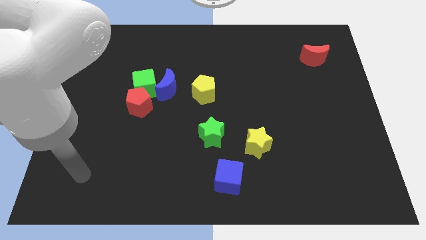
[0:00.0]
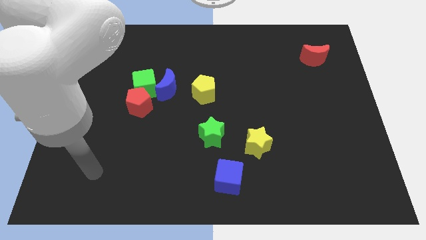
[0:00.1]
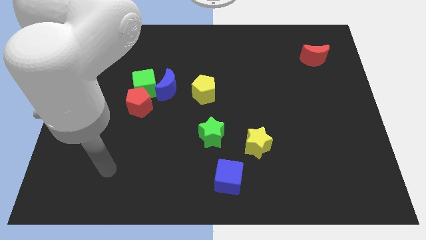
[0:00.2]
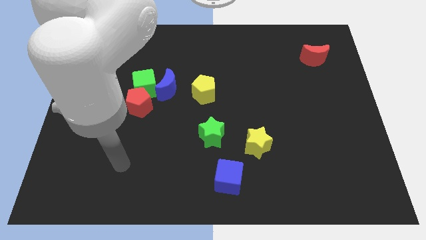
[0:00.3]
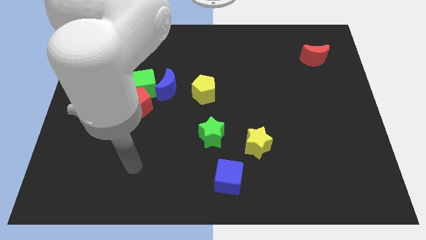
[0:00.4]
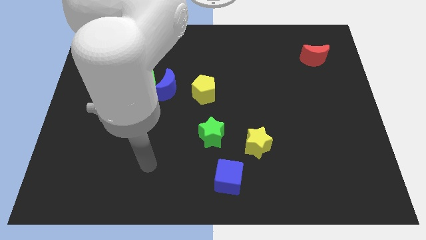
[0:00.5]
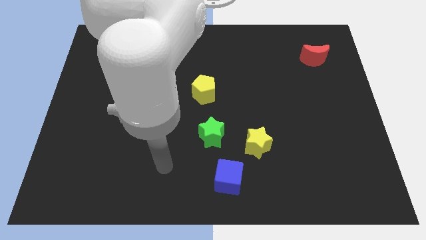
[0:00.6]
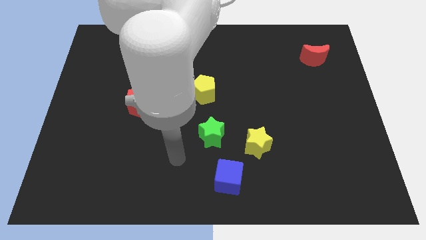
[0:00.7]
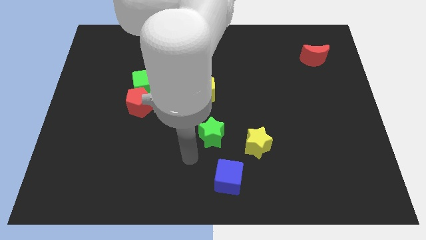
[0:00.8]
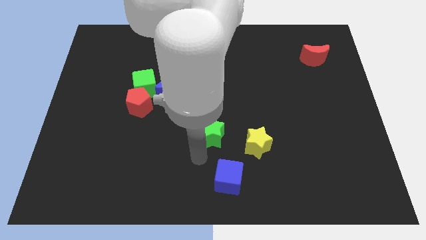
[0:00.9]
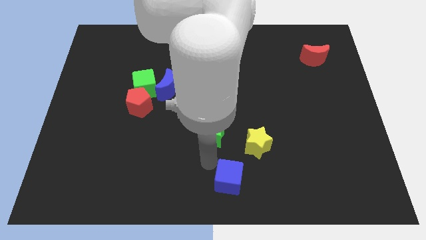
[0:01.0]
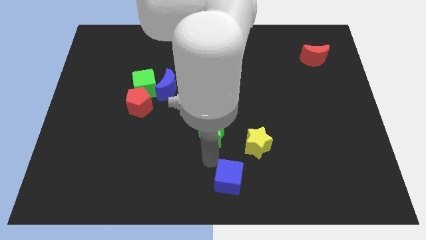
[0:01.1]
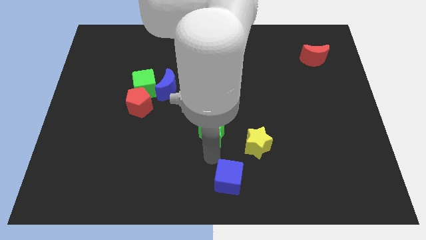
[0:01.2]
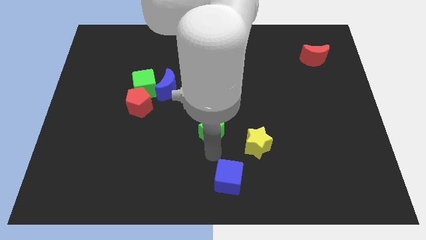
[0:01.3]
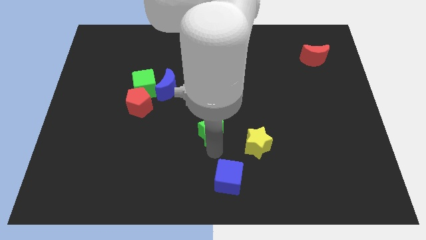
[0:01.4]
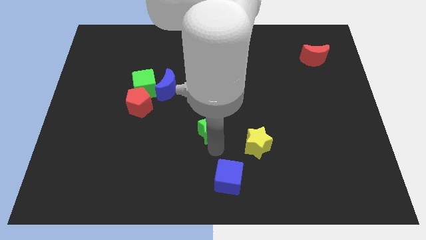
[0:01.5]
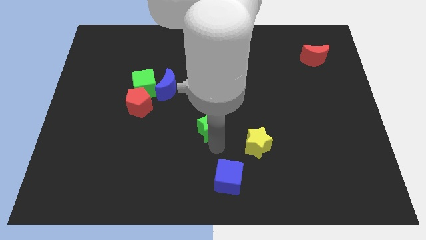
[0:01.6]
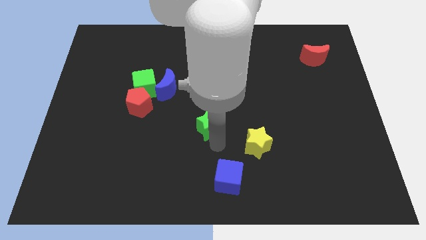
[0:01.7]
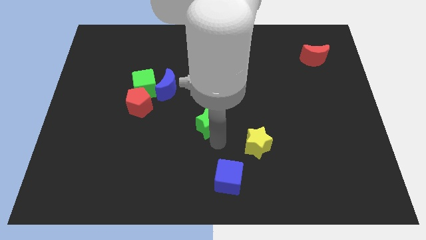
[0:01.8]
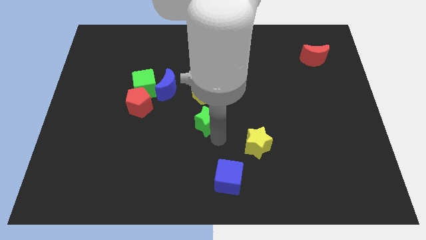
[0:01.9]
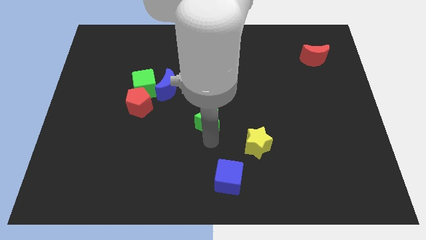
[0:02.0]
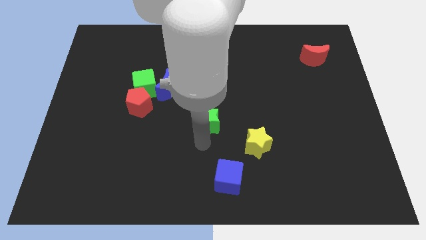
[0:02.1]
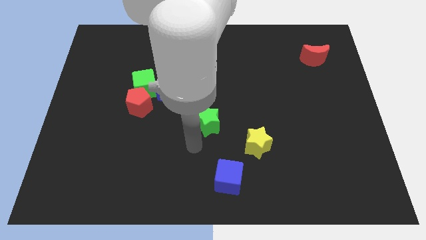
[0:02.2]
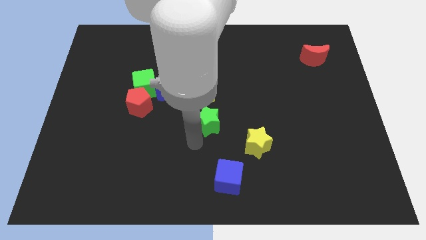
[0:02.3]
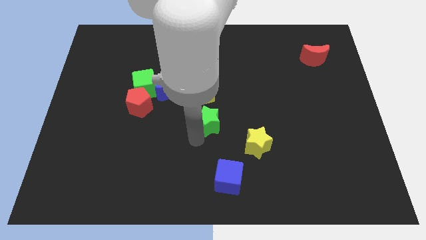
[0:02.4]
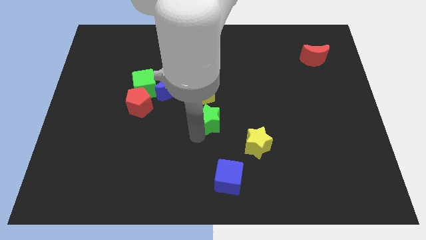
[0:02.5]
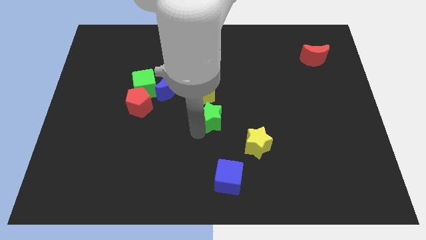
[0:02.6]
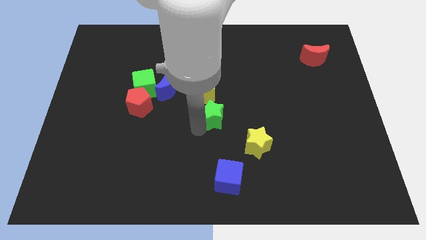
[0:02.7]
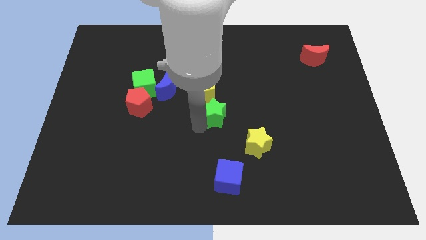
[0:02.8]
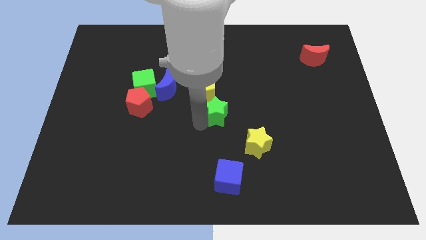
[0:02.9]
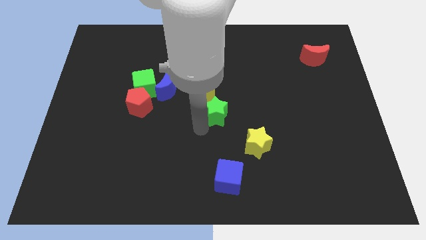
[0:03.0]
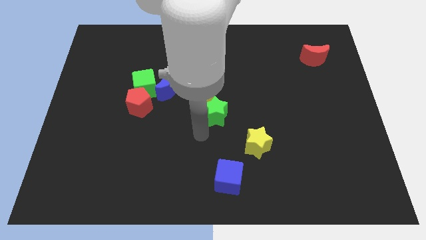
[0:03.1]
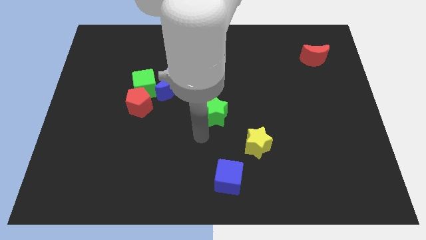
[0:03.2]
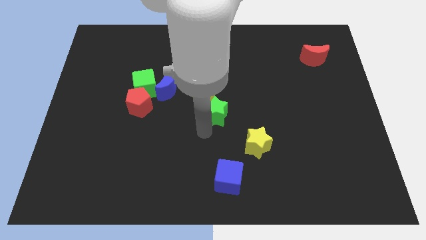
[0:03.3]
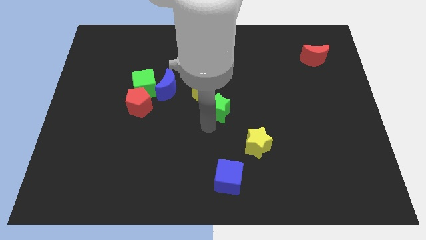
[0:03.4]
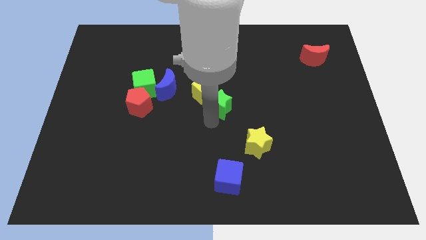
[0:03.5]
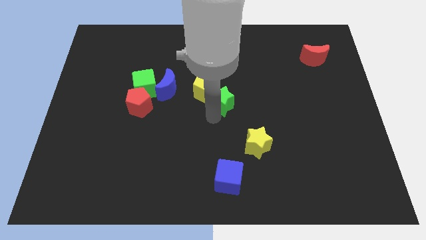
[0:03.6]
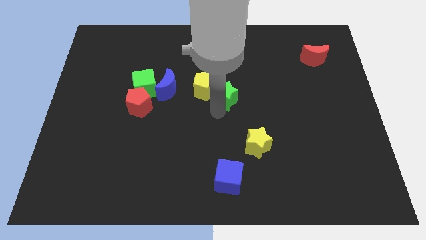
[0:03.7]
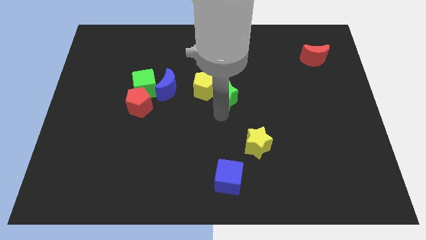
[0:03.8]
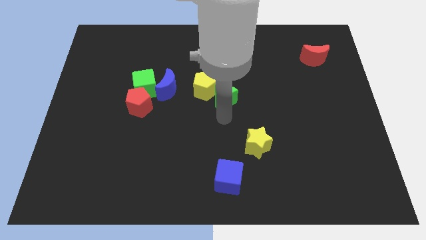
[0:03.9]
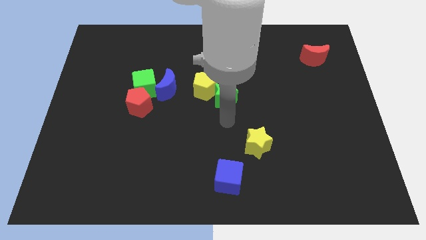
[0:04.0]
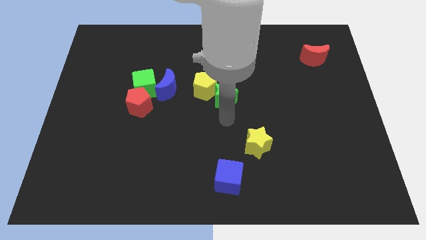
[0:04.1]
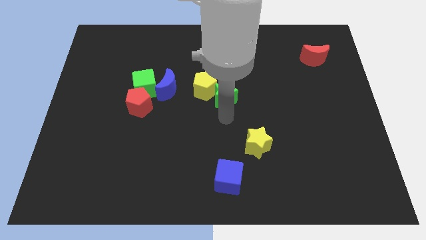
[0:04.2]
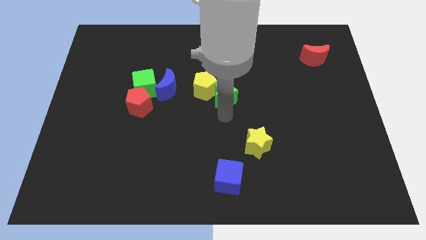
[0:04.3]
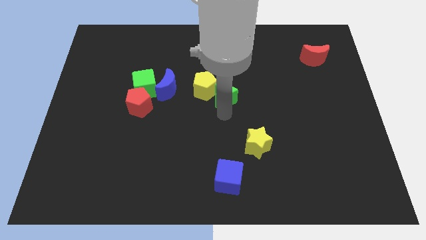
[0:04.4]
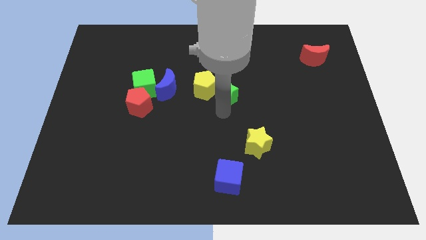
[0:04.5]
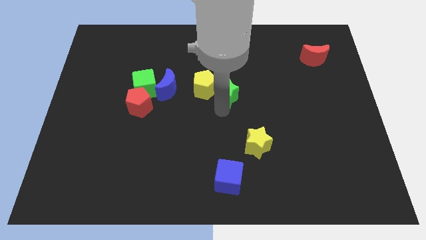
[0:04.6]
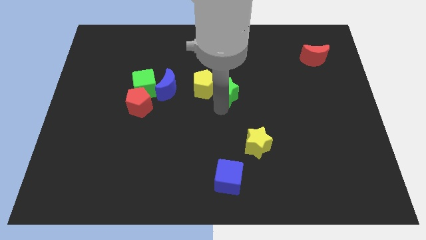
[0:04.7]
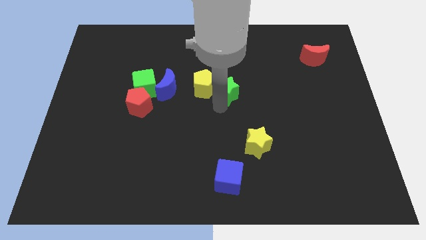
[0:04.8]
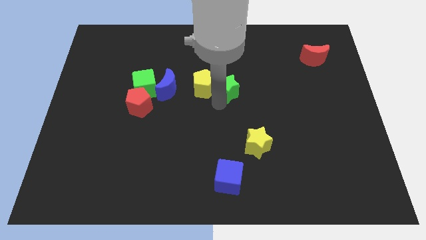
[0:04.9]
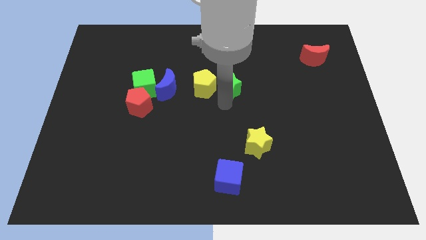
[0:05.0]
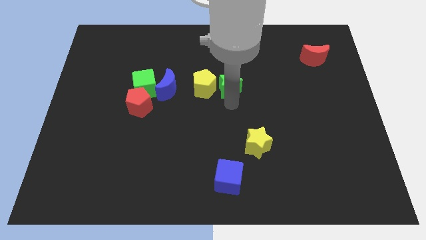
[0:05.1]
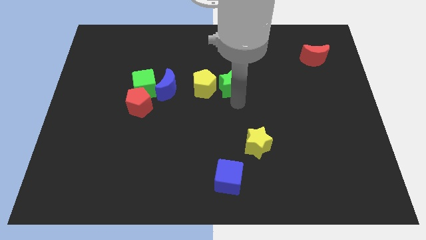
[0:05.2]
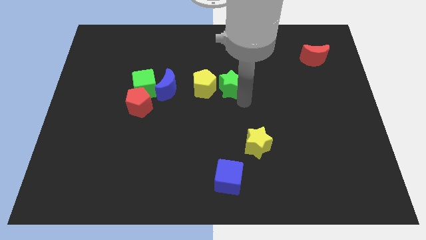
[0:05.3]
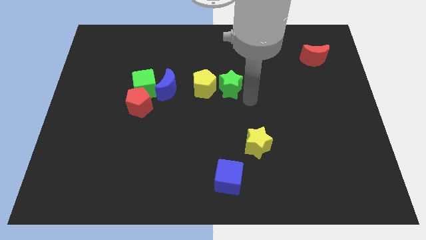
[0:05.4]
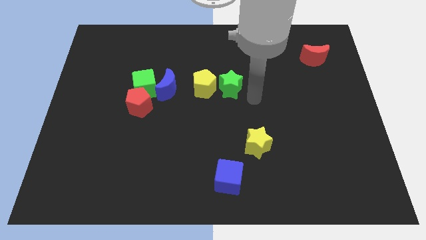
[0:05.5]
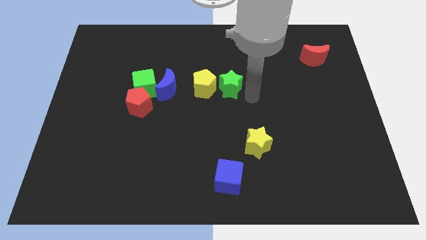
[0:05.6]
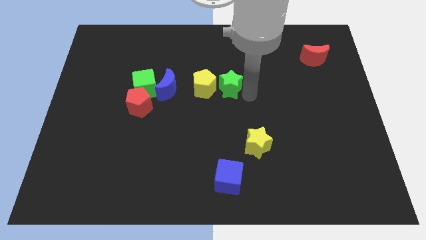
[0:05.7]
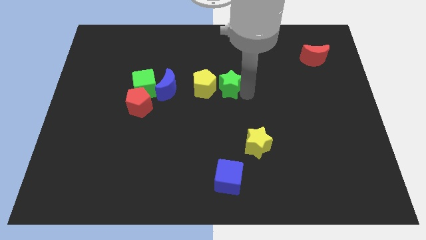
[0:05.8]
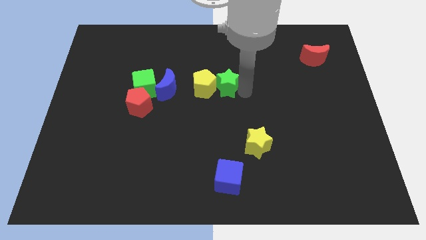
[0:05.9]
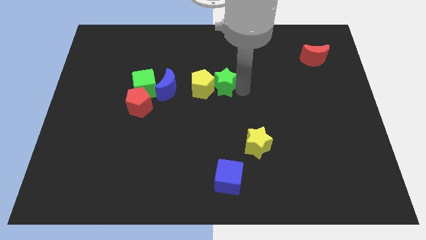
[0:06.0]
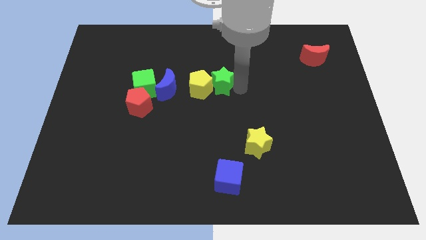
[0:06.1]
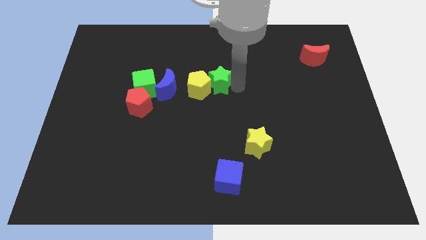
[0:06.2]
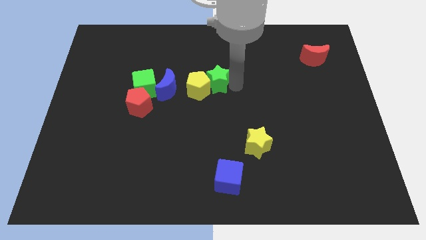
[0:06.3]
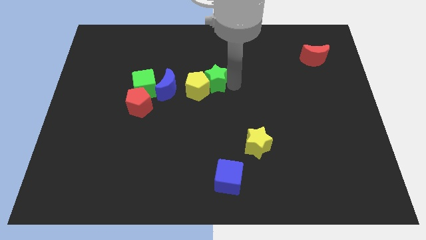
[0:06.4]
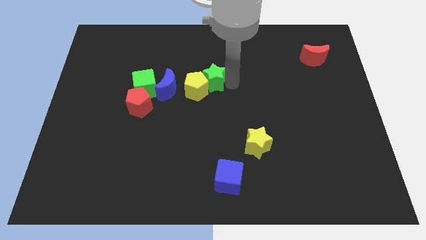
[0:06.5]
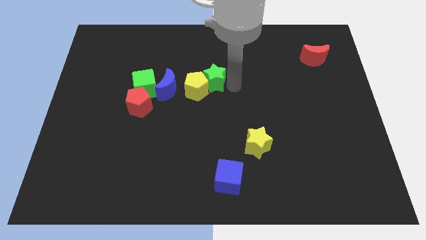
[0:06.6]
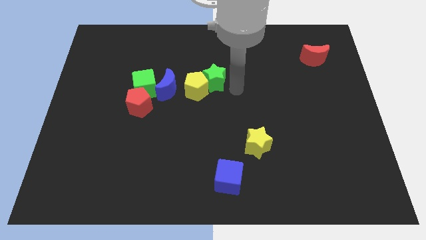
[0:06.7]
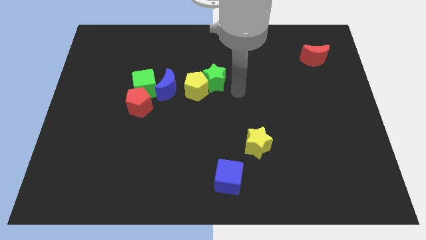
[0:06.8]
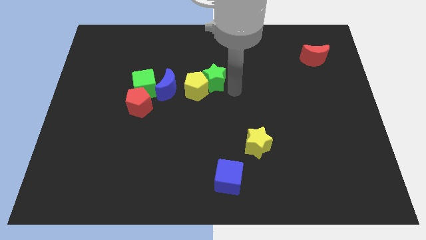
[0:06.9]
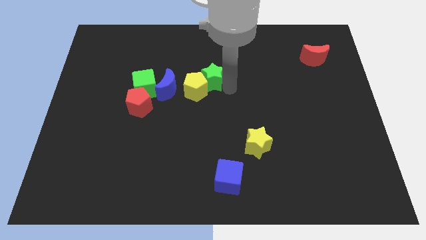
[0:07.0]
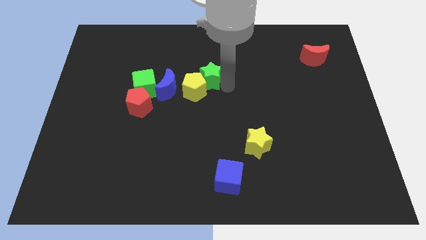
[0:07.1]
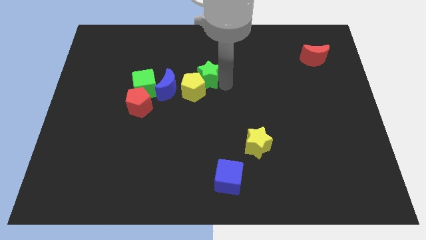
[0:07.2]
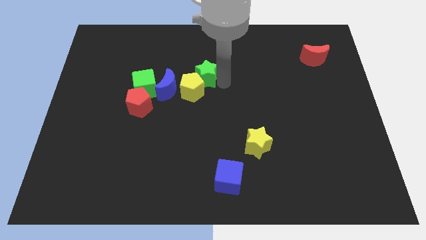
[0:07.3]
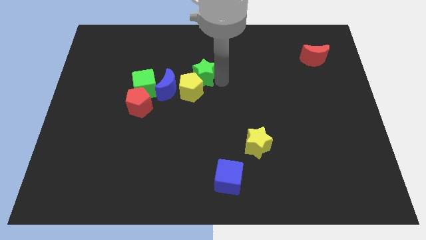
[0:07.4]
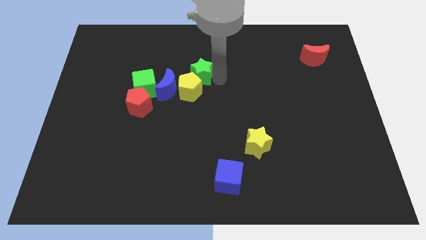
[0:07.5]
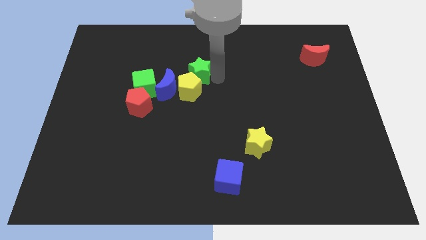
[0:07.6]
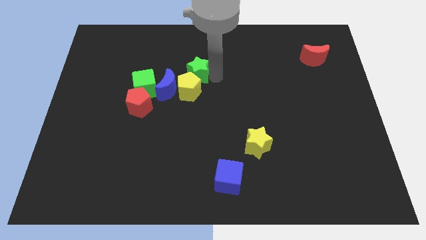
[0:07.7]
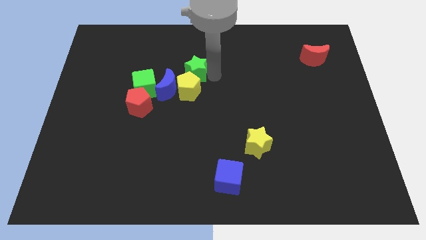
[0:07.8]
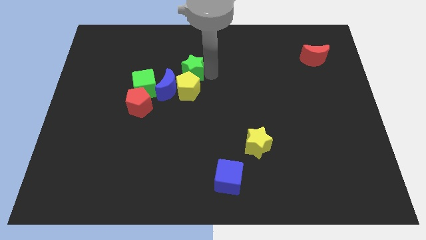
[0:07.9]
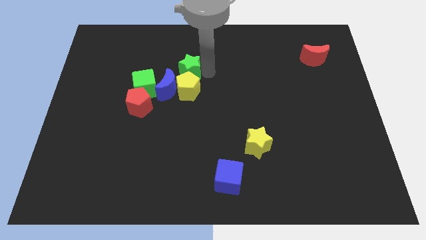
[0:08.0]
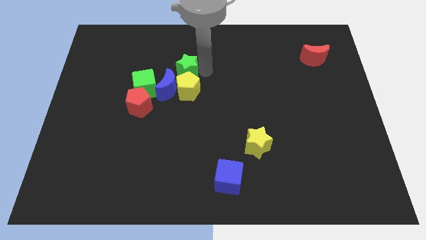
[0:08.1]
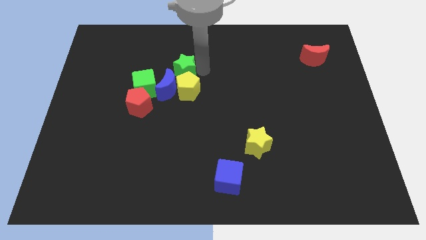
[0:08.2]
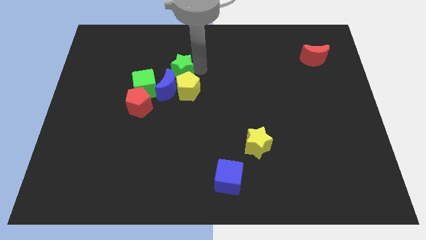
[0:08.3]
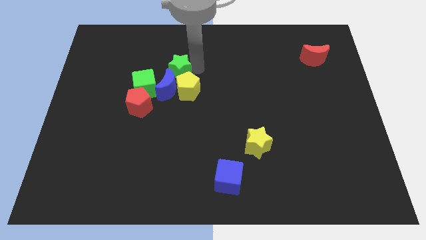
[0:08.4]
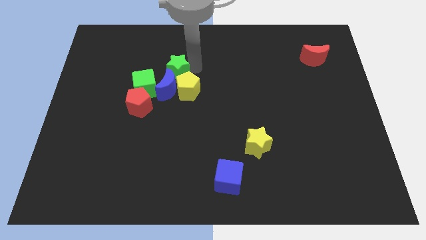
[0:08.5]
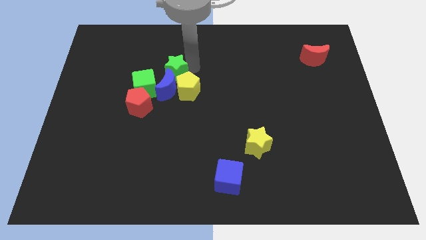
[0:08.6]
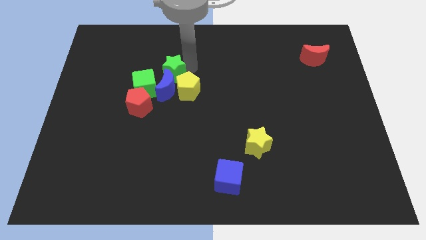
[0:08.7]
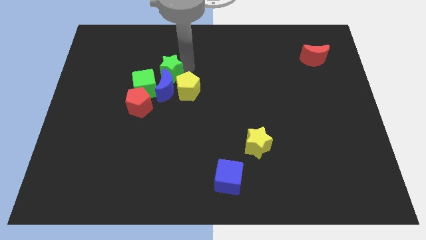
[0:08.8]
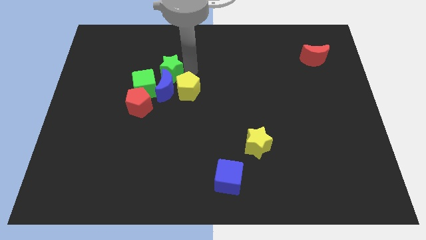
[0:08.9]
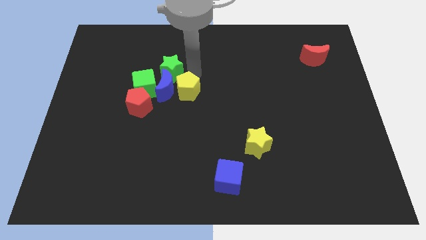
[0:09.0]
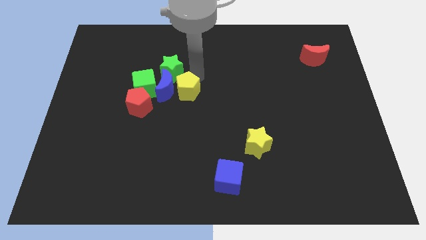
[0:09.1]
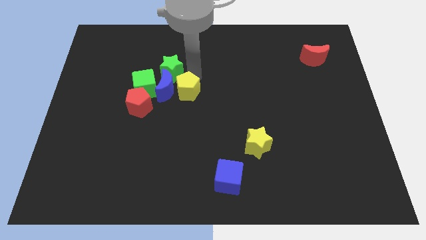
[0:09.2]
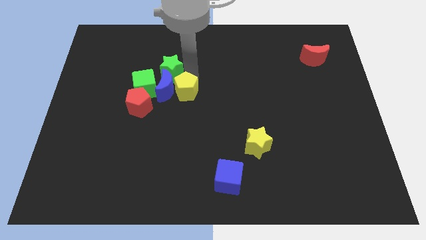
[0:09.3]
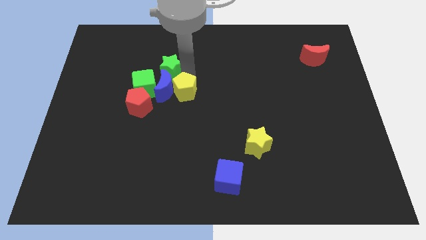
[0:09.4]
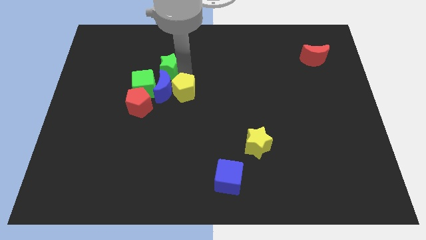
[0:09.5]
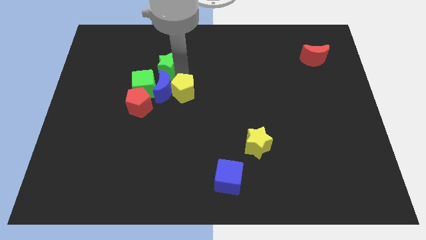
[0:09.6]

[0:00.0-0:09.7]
move the green star upwards and to the left diagonally
